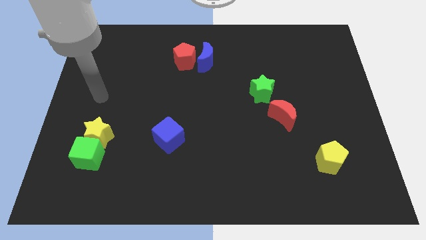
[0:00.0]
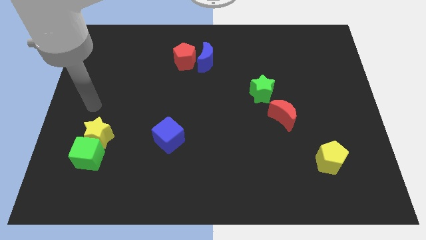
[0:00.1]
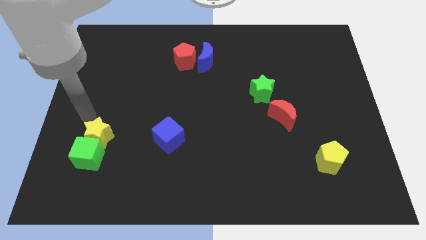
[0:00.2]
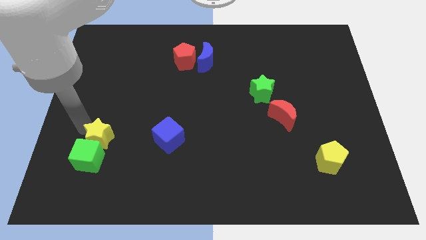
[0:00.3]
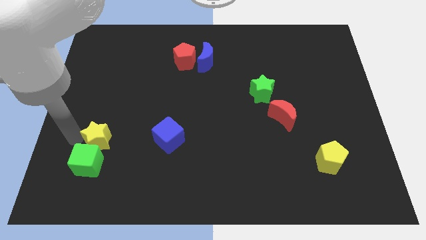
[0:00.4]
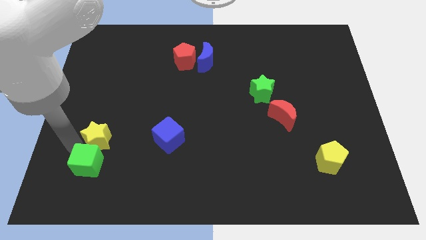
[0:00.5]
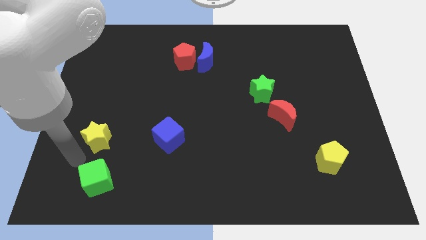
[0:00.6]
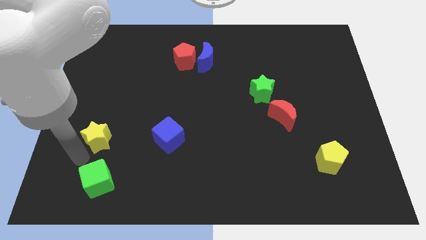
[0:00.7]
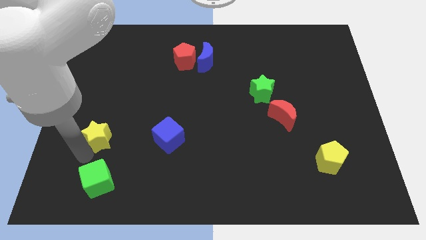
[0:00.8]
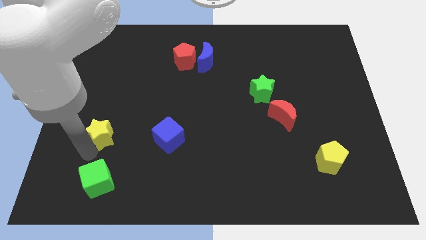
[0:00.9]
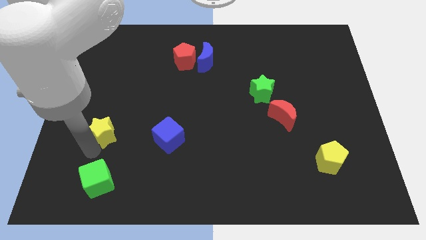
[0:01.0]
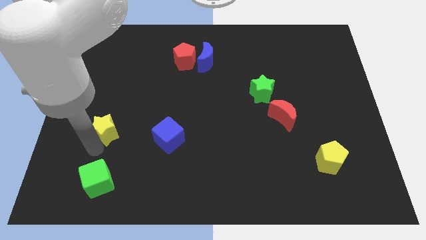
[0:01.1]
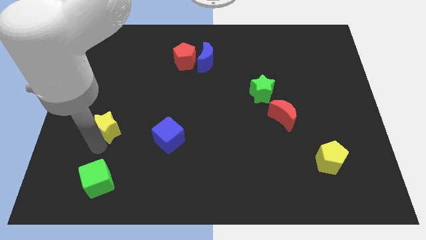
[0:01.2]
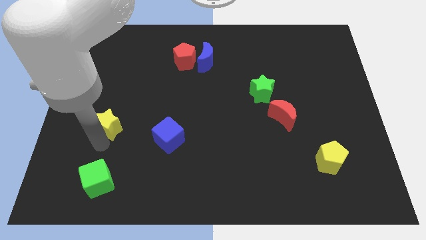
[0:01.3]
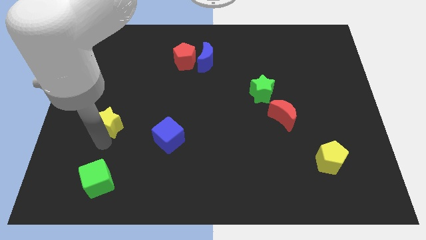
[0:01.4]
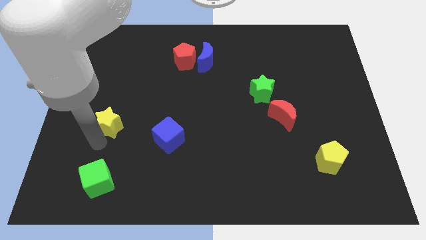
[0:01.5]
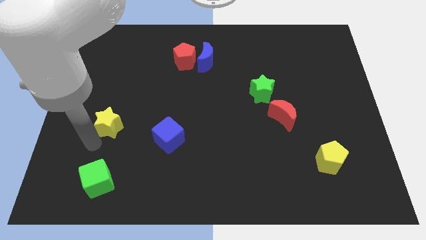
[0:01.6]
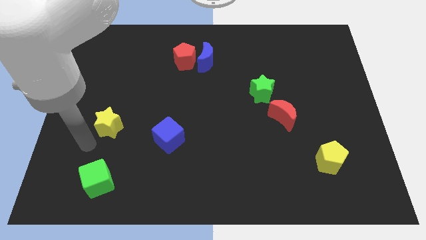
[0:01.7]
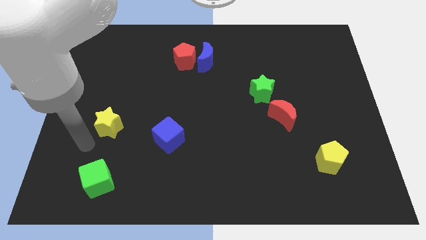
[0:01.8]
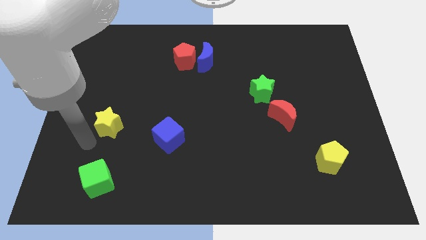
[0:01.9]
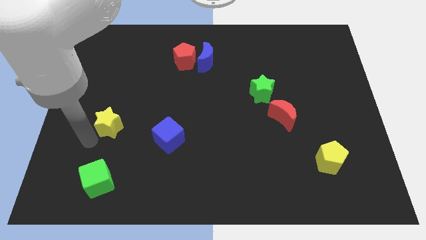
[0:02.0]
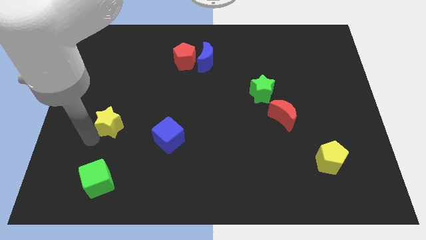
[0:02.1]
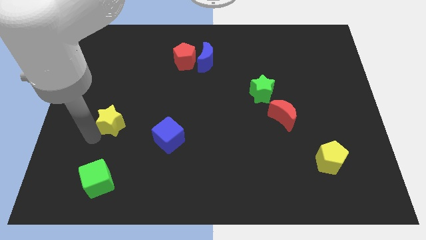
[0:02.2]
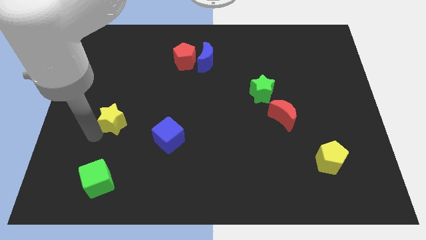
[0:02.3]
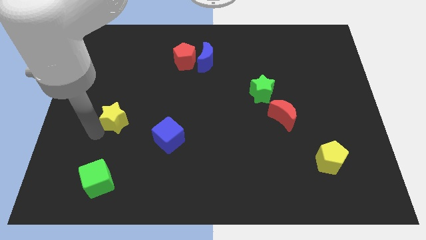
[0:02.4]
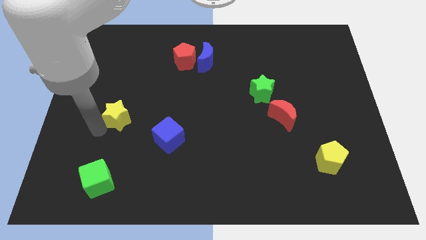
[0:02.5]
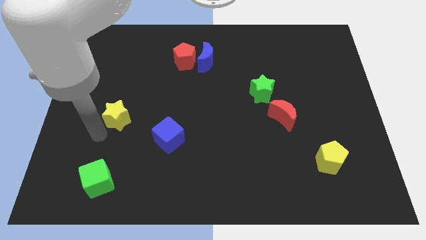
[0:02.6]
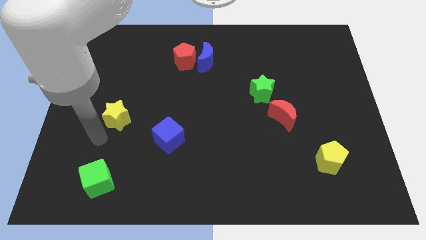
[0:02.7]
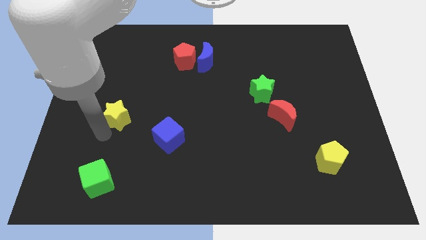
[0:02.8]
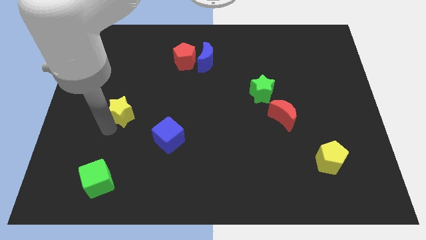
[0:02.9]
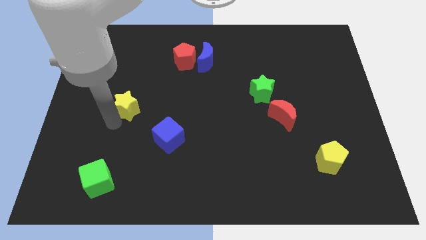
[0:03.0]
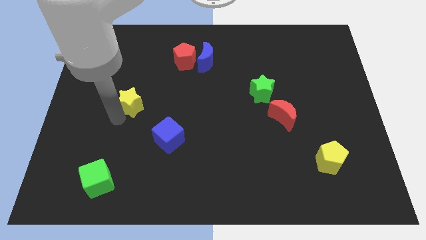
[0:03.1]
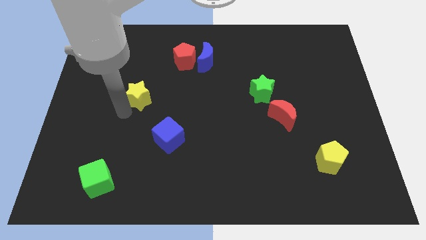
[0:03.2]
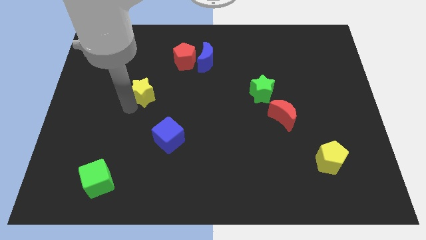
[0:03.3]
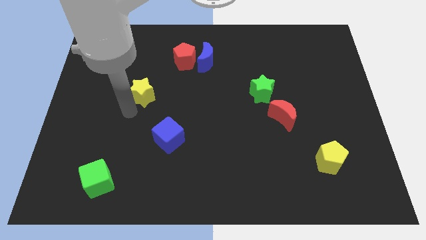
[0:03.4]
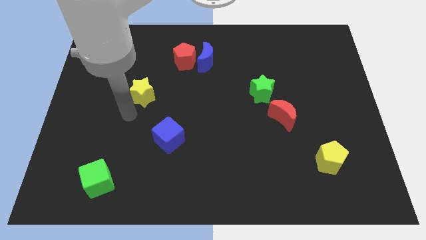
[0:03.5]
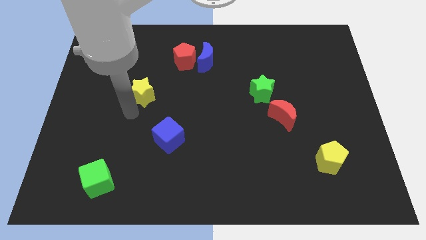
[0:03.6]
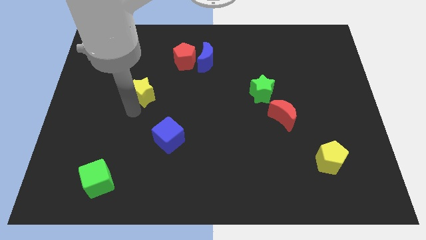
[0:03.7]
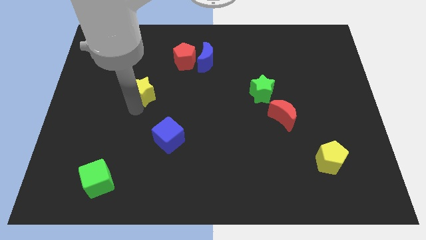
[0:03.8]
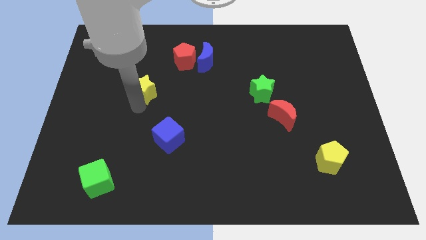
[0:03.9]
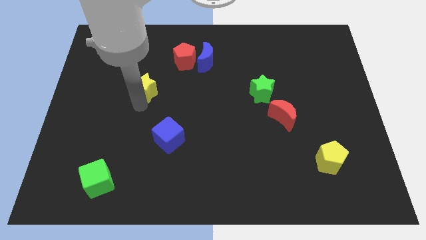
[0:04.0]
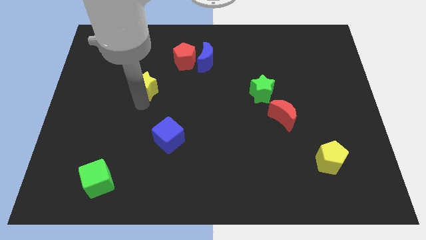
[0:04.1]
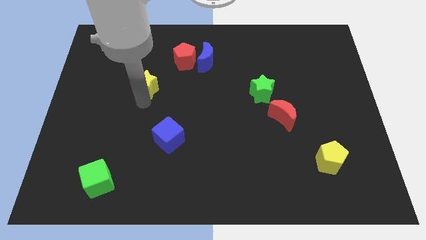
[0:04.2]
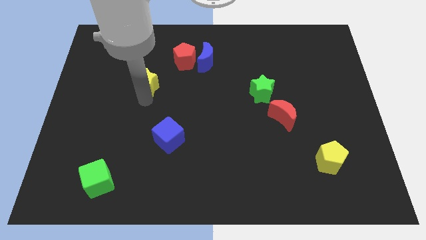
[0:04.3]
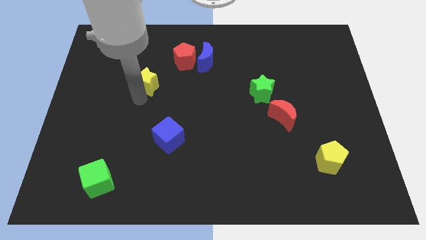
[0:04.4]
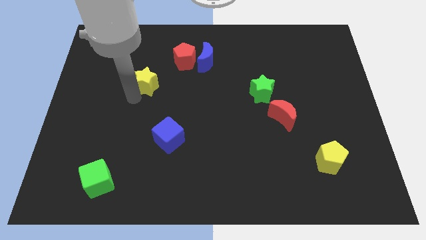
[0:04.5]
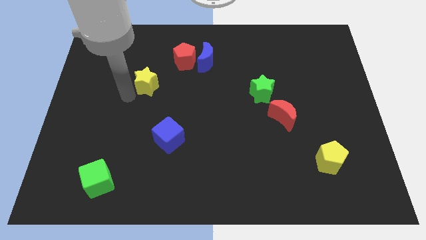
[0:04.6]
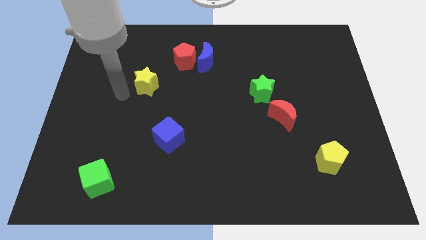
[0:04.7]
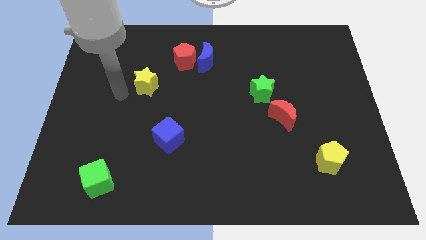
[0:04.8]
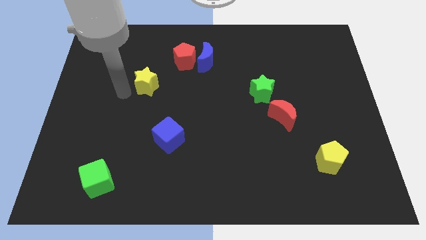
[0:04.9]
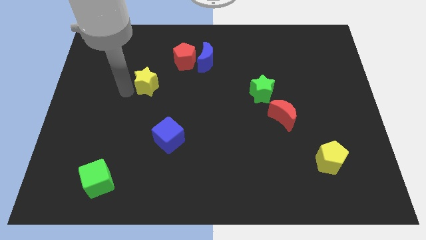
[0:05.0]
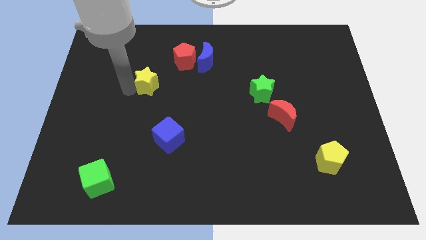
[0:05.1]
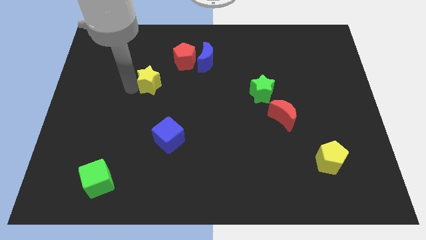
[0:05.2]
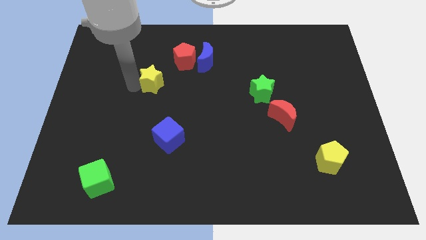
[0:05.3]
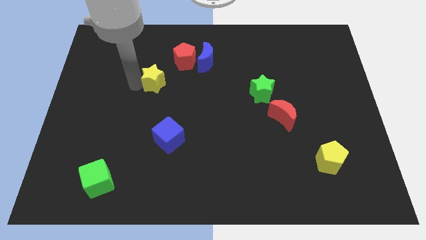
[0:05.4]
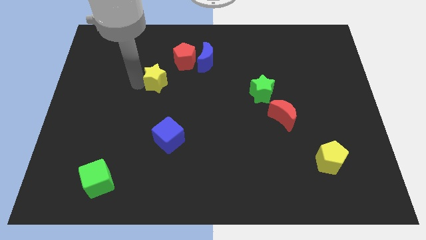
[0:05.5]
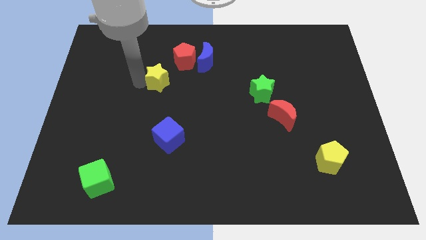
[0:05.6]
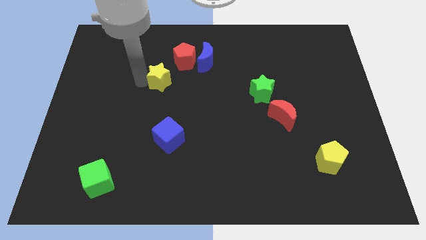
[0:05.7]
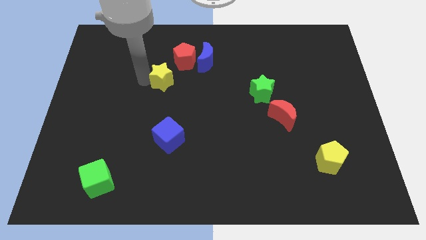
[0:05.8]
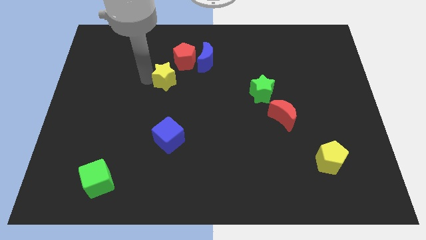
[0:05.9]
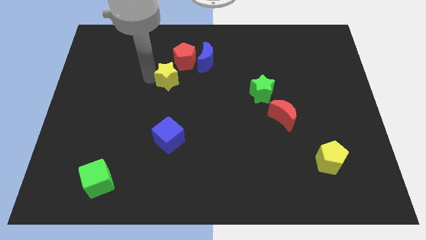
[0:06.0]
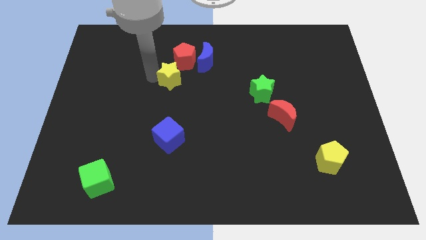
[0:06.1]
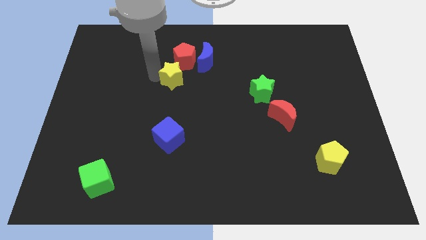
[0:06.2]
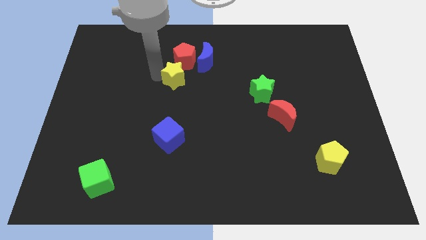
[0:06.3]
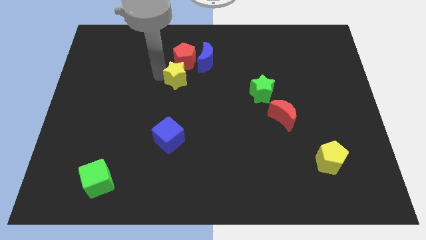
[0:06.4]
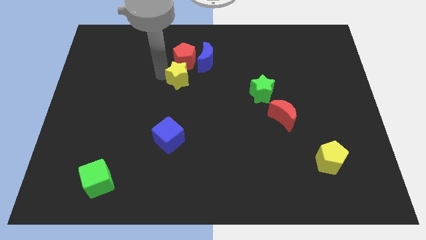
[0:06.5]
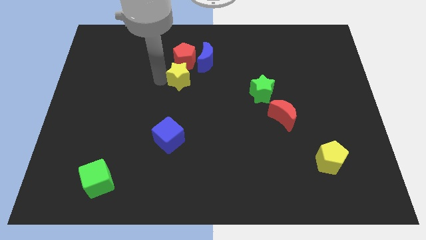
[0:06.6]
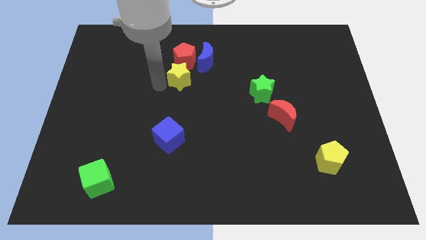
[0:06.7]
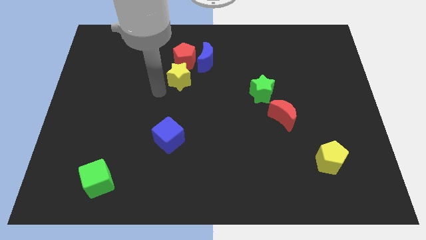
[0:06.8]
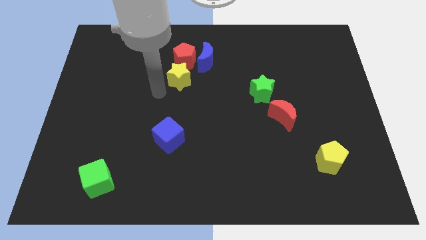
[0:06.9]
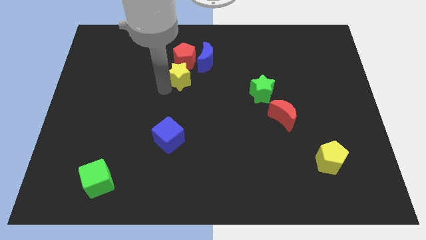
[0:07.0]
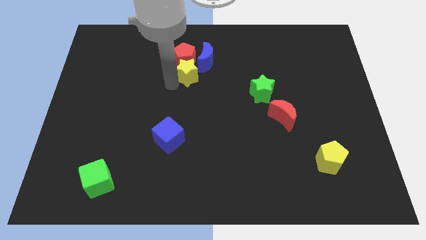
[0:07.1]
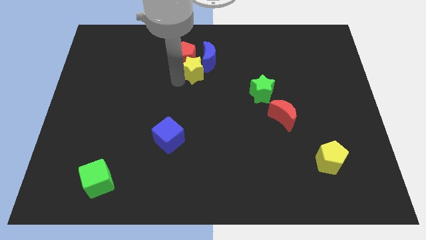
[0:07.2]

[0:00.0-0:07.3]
push the yellow star towards the blue moon
